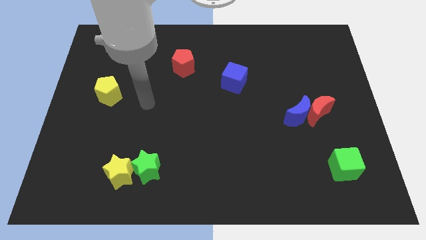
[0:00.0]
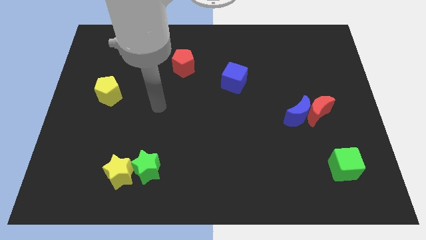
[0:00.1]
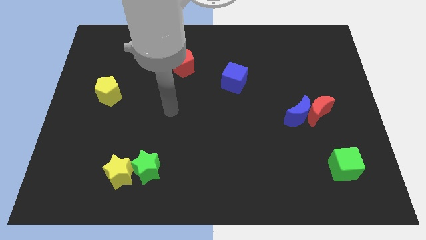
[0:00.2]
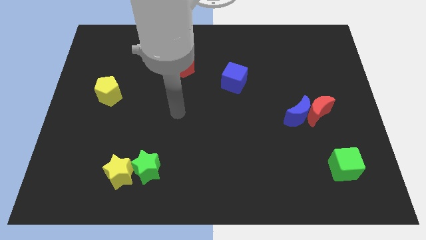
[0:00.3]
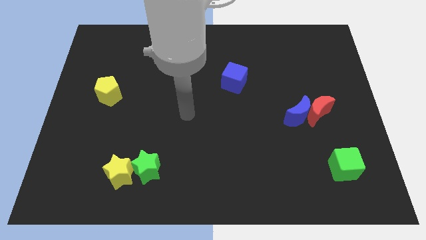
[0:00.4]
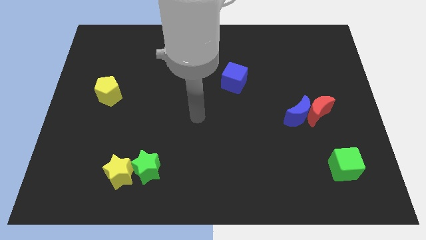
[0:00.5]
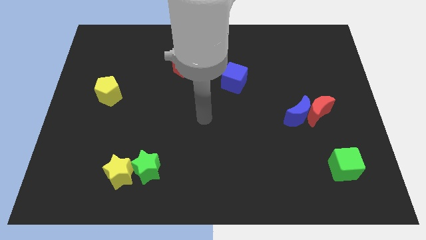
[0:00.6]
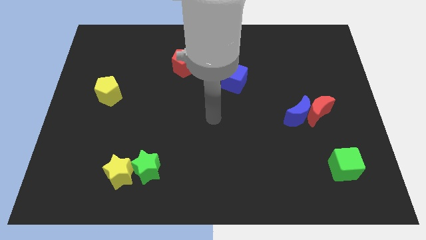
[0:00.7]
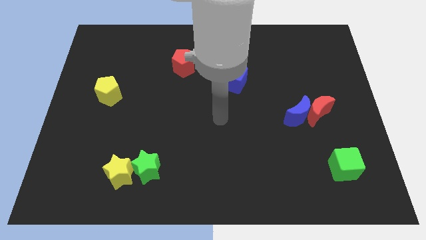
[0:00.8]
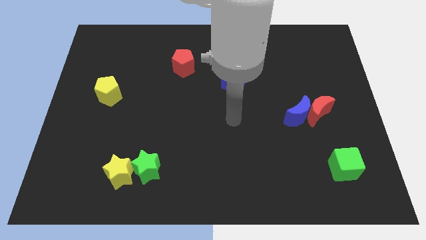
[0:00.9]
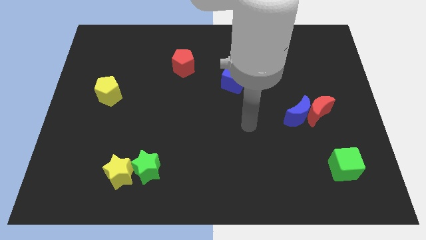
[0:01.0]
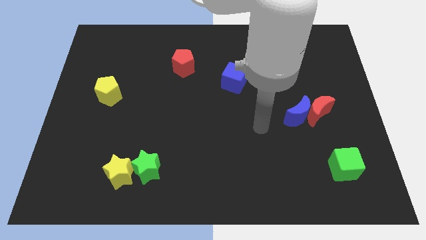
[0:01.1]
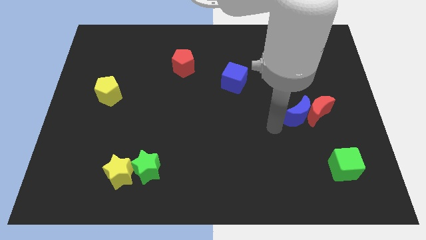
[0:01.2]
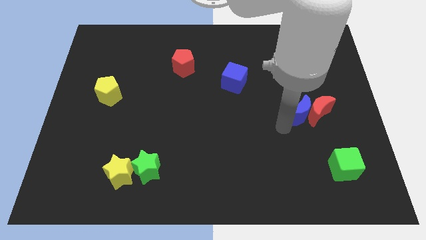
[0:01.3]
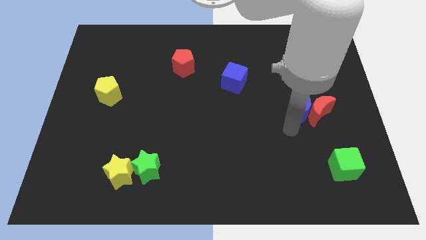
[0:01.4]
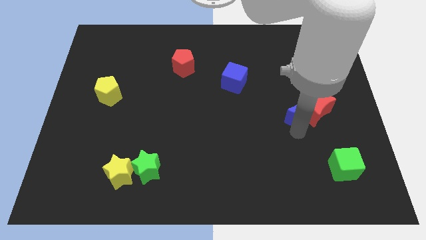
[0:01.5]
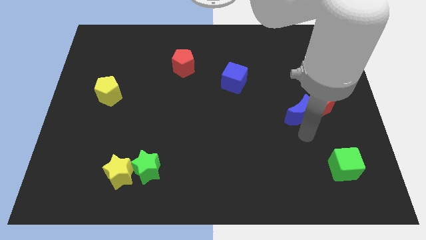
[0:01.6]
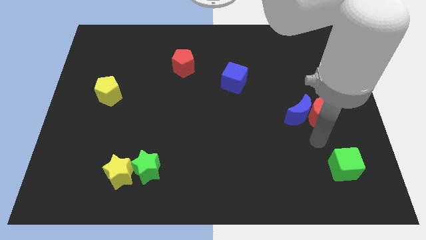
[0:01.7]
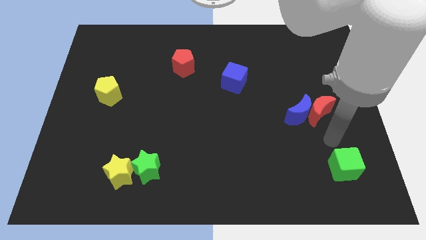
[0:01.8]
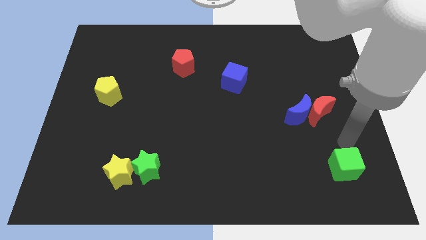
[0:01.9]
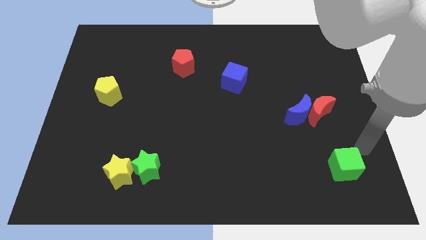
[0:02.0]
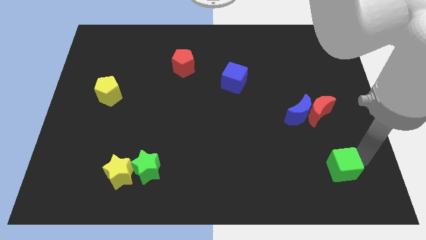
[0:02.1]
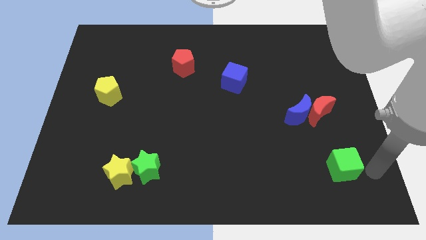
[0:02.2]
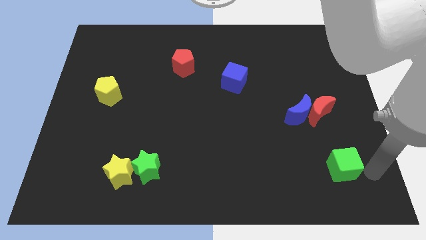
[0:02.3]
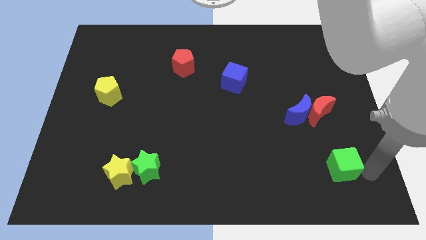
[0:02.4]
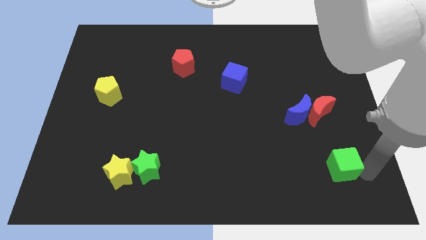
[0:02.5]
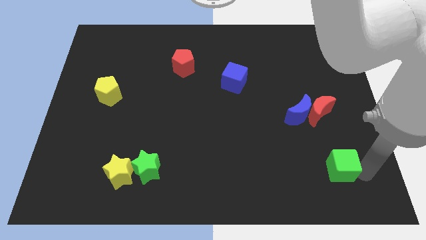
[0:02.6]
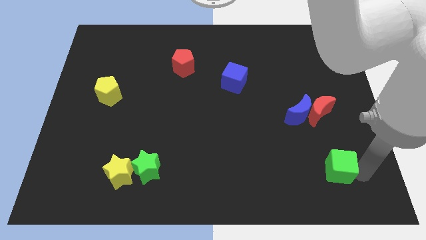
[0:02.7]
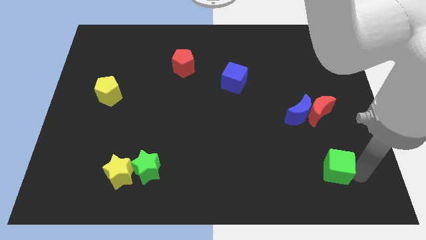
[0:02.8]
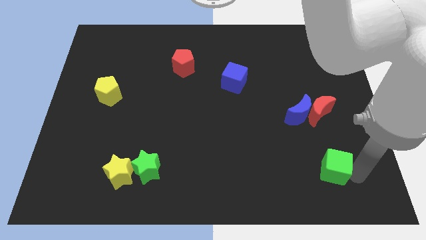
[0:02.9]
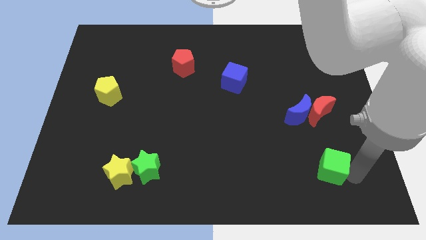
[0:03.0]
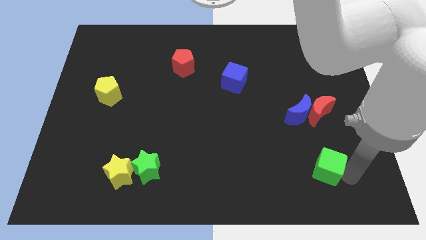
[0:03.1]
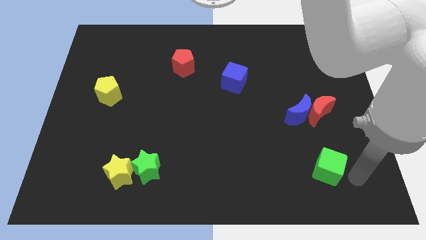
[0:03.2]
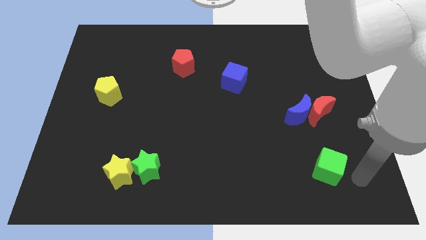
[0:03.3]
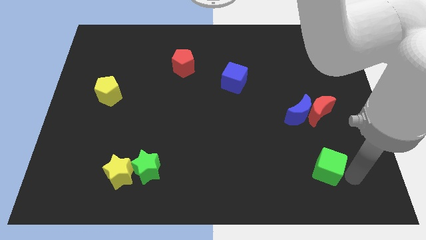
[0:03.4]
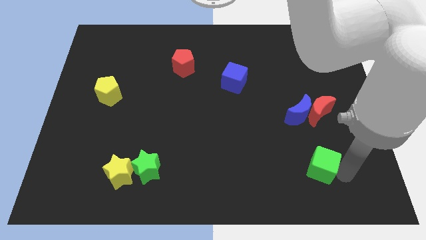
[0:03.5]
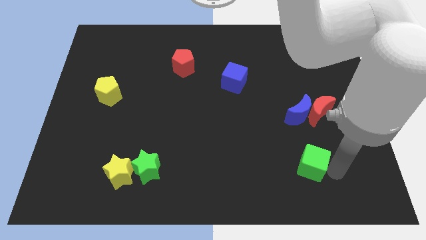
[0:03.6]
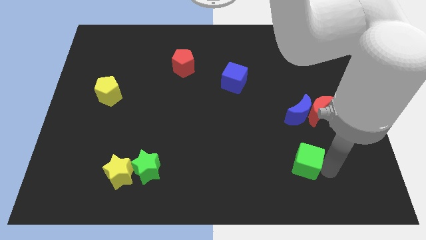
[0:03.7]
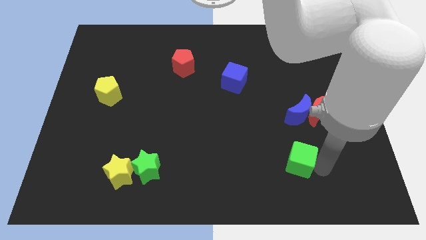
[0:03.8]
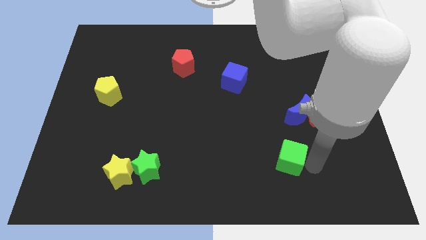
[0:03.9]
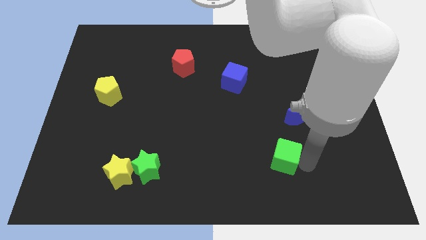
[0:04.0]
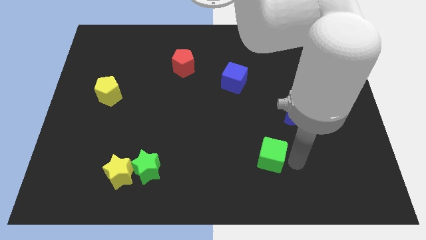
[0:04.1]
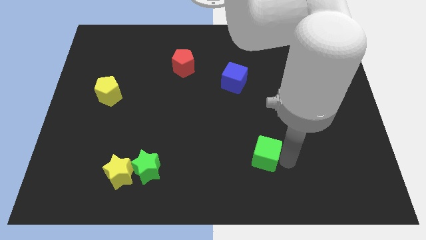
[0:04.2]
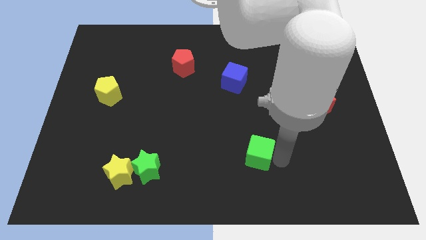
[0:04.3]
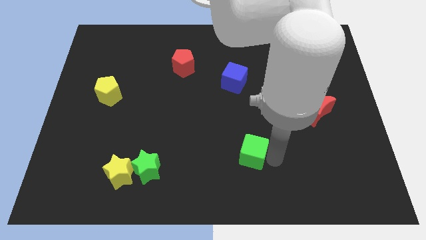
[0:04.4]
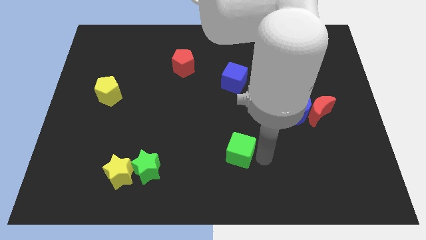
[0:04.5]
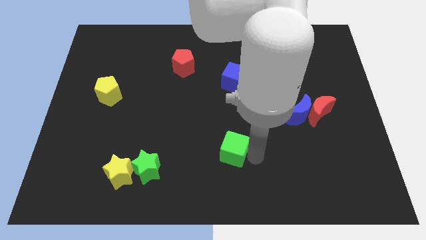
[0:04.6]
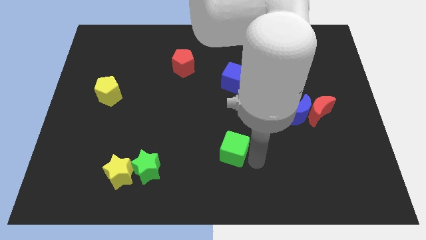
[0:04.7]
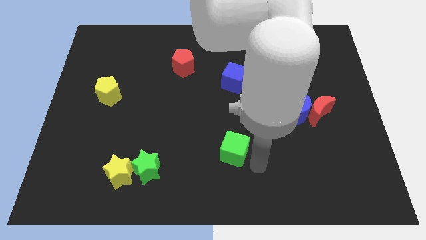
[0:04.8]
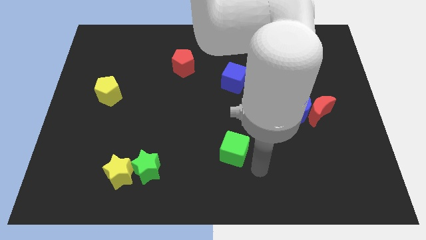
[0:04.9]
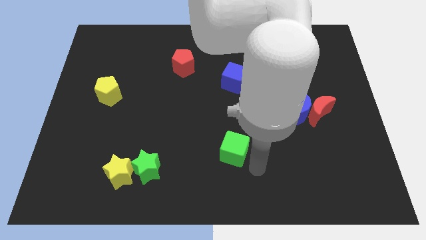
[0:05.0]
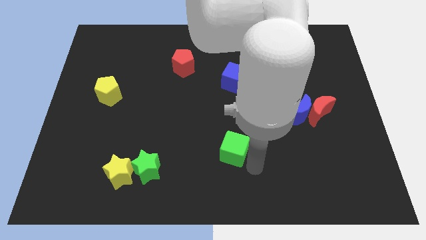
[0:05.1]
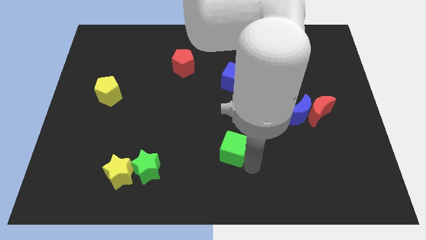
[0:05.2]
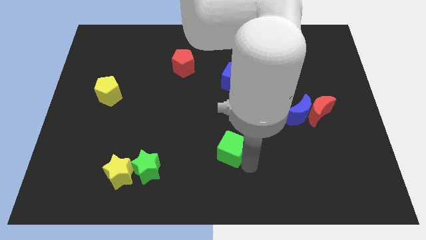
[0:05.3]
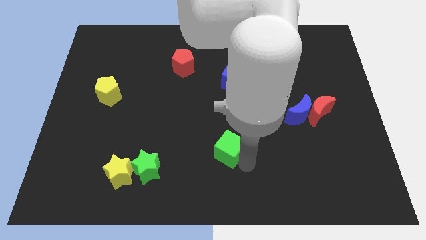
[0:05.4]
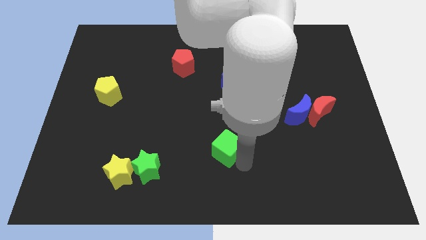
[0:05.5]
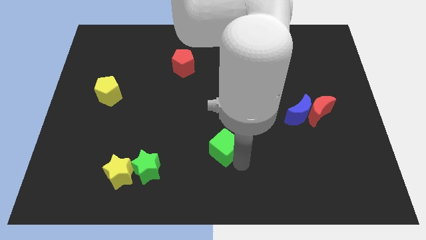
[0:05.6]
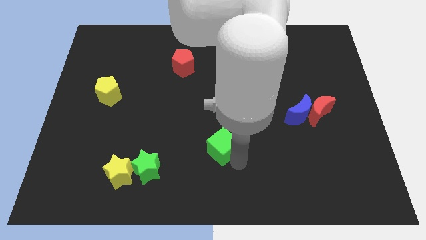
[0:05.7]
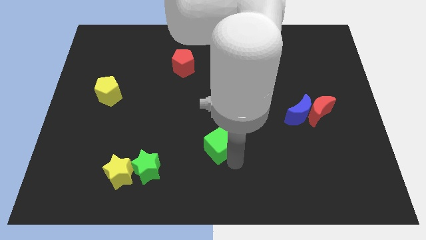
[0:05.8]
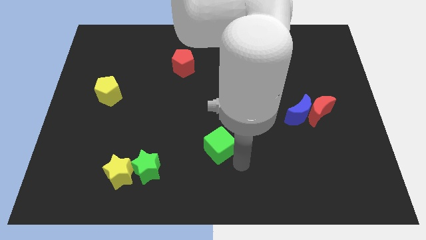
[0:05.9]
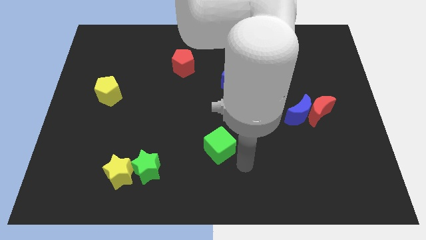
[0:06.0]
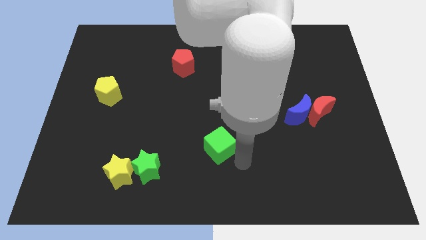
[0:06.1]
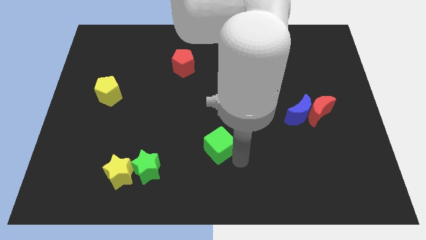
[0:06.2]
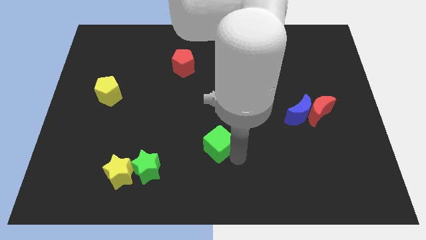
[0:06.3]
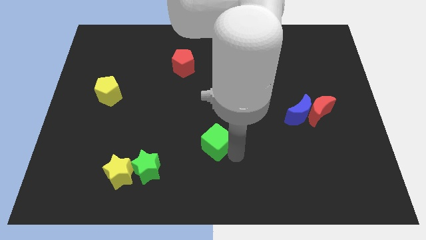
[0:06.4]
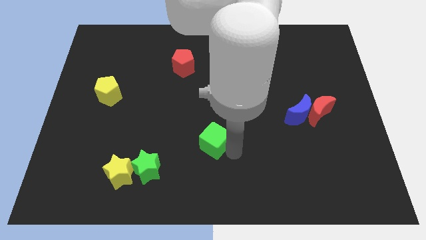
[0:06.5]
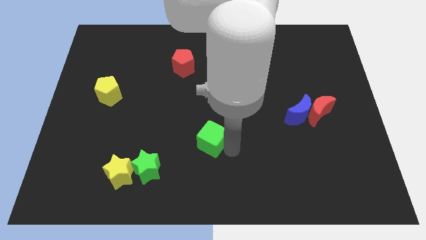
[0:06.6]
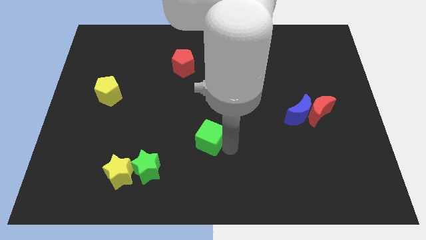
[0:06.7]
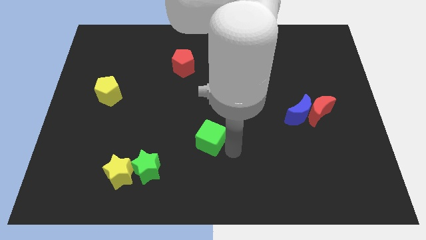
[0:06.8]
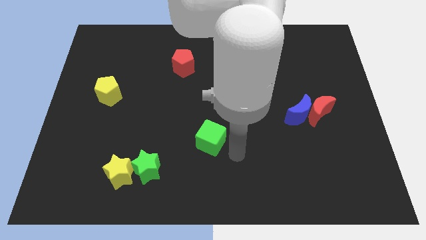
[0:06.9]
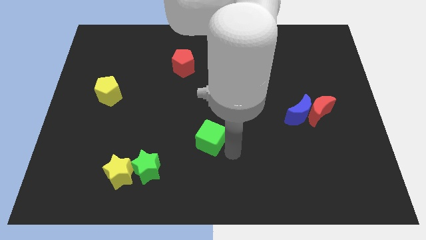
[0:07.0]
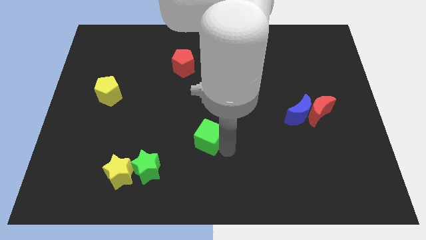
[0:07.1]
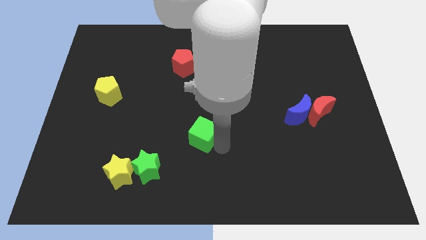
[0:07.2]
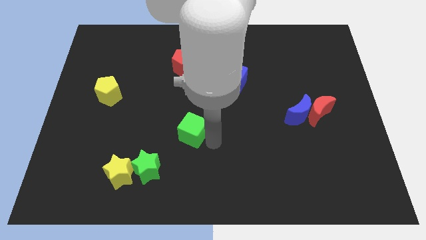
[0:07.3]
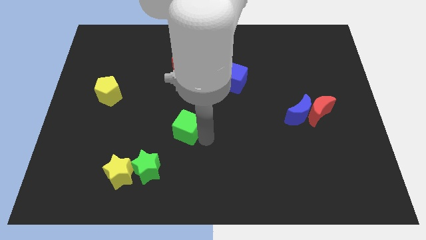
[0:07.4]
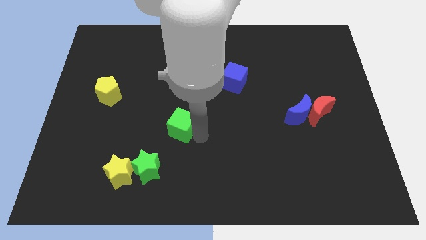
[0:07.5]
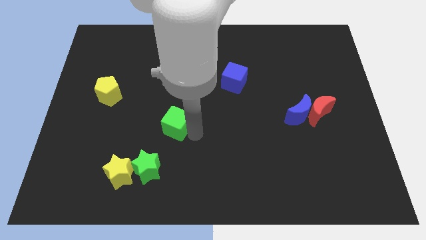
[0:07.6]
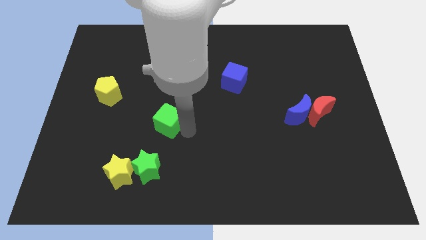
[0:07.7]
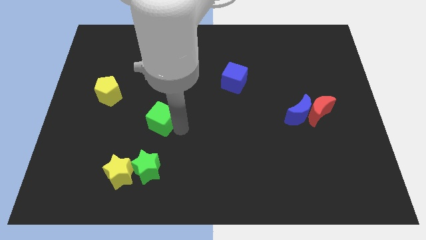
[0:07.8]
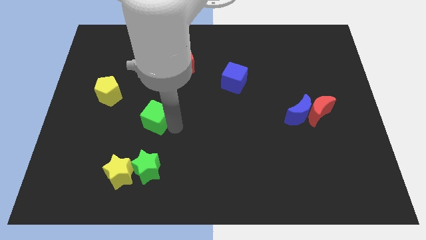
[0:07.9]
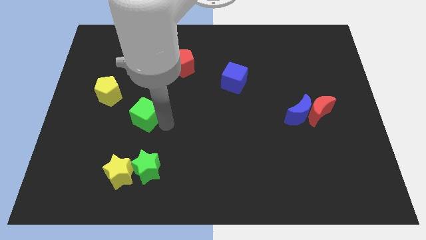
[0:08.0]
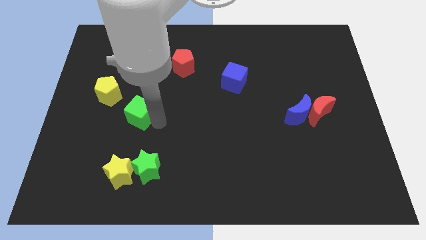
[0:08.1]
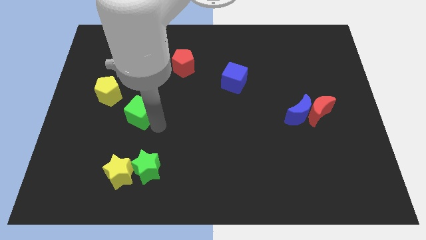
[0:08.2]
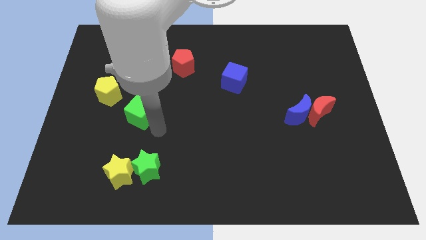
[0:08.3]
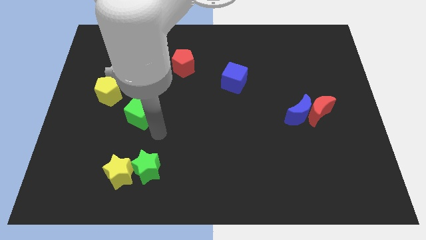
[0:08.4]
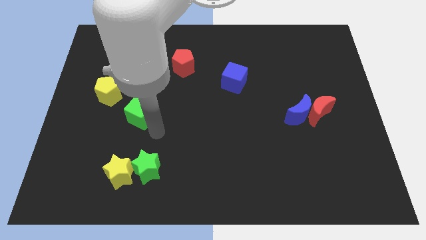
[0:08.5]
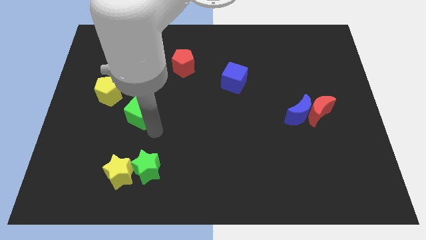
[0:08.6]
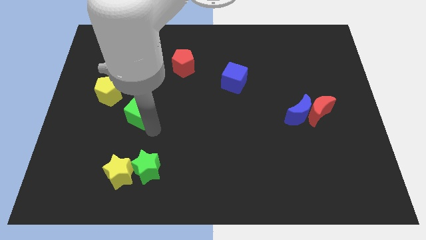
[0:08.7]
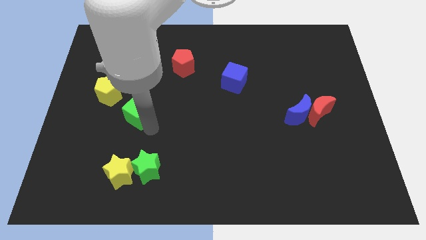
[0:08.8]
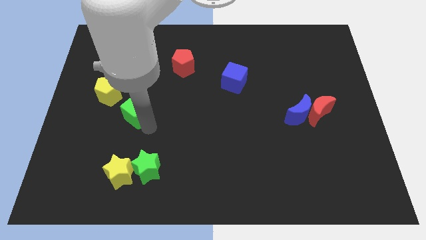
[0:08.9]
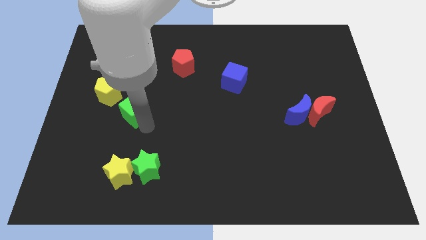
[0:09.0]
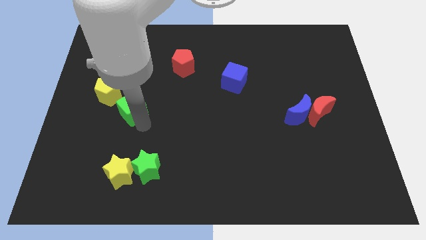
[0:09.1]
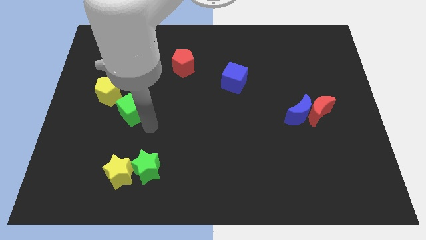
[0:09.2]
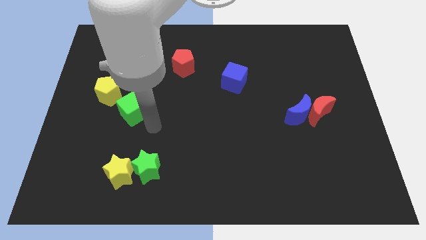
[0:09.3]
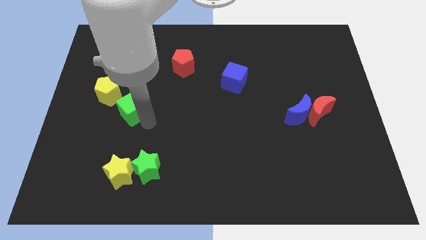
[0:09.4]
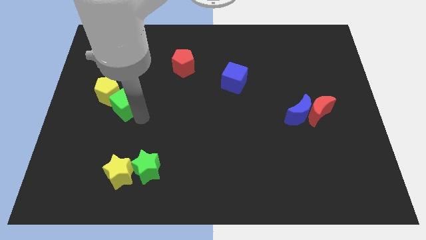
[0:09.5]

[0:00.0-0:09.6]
slide the green cube to the yellow pentagon
